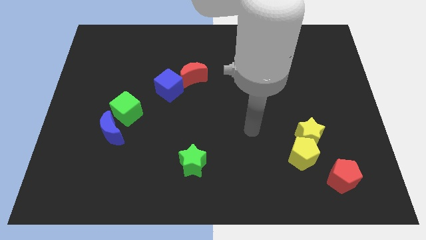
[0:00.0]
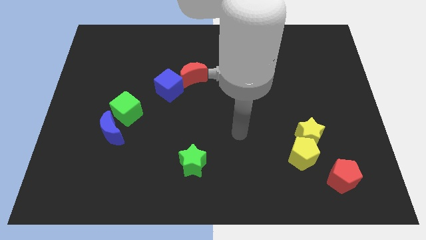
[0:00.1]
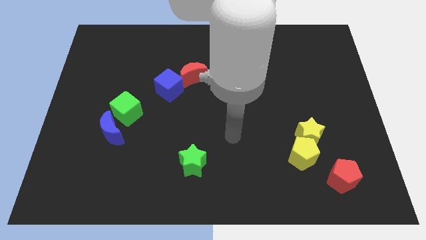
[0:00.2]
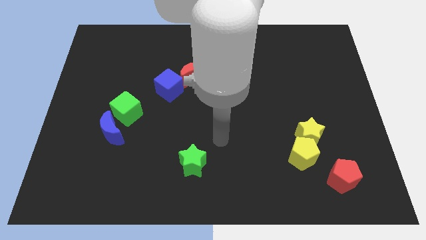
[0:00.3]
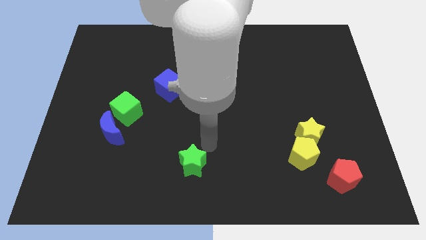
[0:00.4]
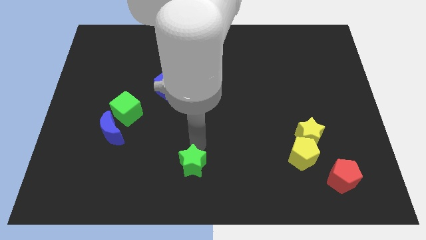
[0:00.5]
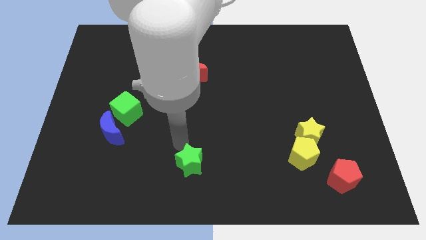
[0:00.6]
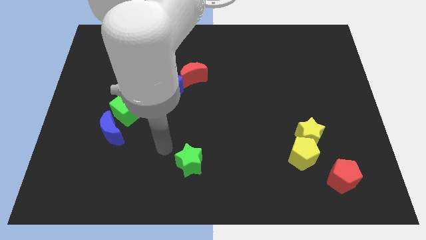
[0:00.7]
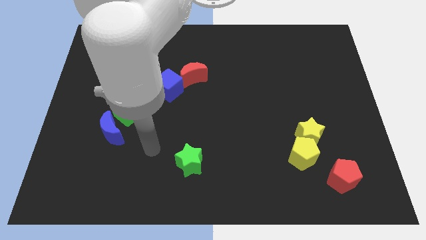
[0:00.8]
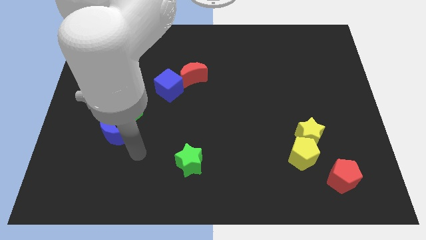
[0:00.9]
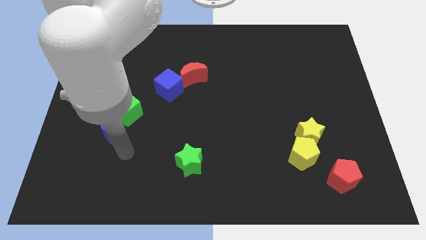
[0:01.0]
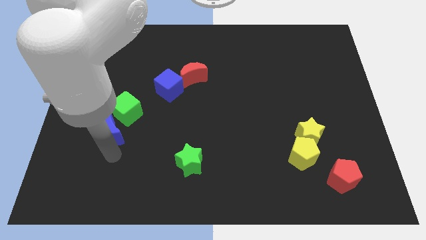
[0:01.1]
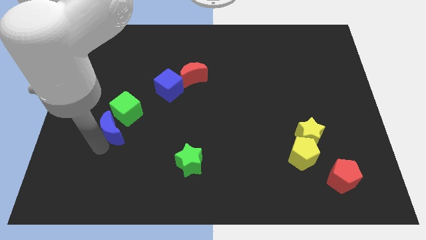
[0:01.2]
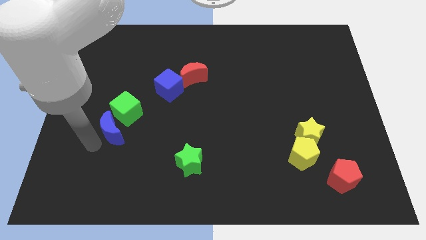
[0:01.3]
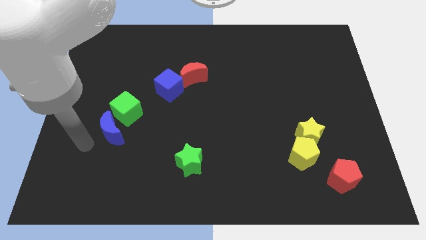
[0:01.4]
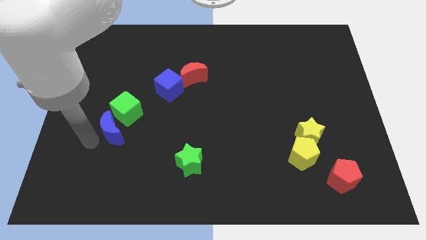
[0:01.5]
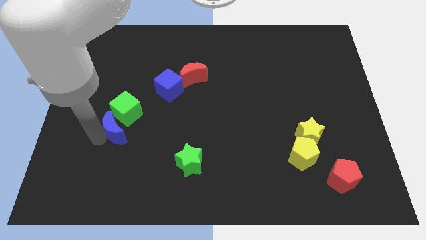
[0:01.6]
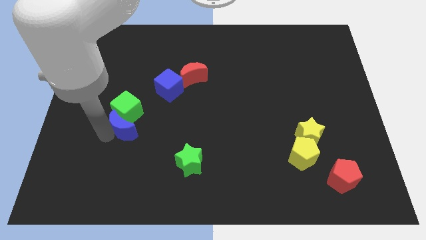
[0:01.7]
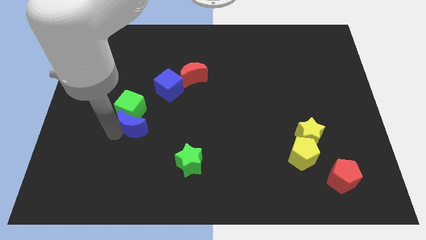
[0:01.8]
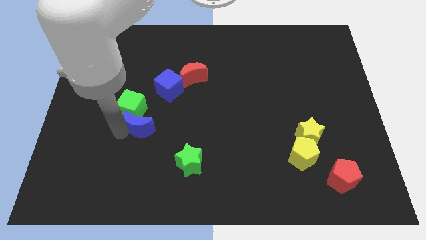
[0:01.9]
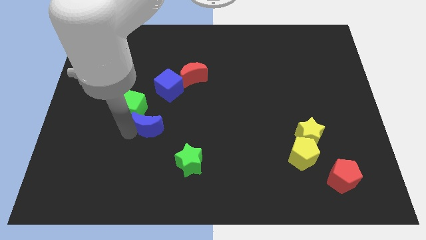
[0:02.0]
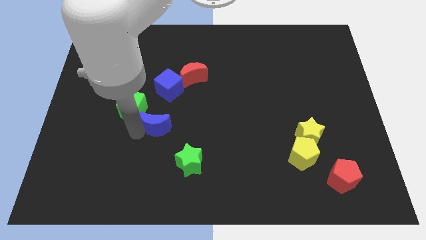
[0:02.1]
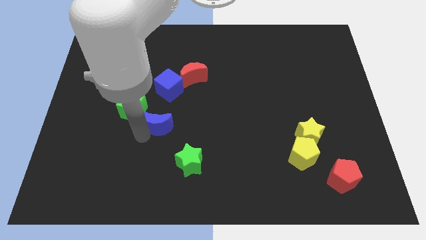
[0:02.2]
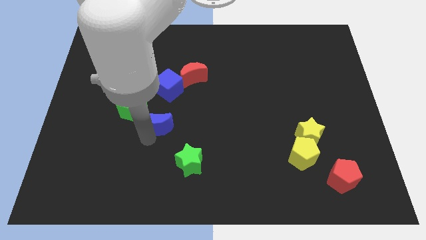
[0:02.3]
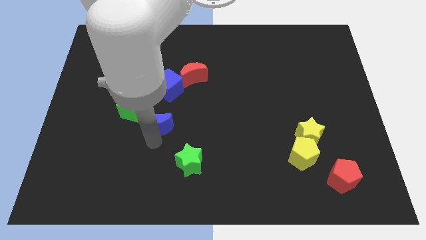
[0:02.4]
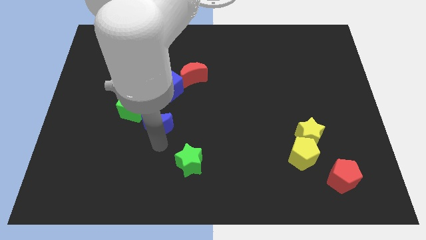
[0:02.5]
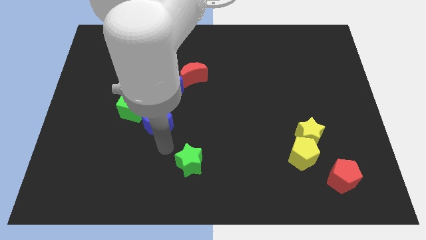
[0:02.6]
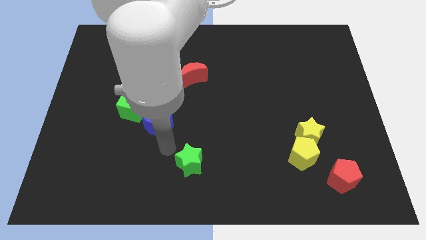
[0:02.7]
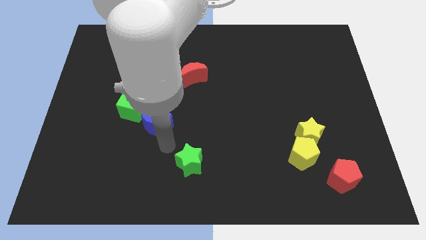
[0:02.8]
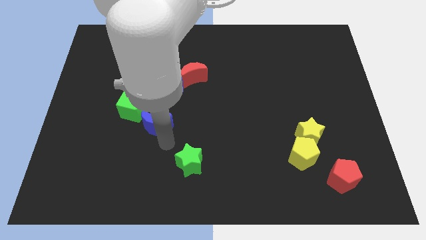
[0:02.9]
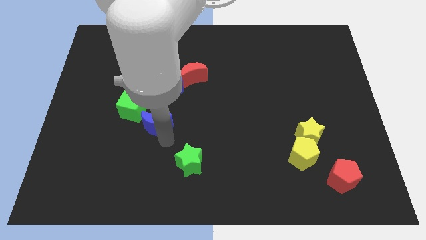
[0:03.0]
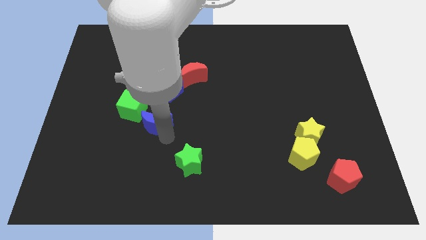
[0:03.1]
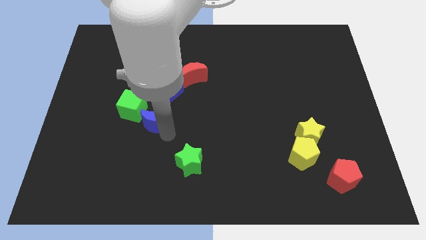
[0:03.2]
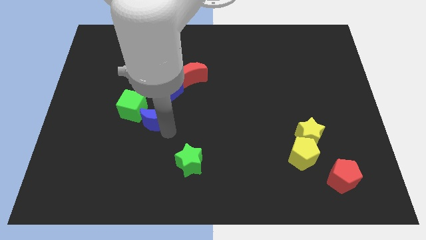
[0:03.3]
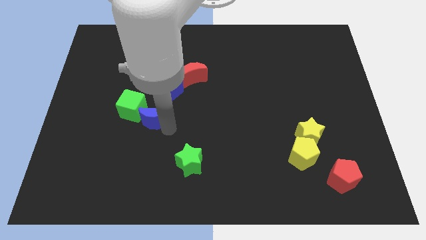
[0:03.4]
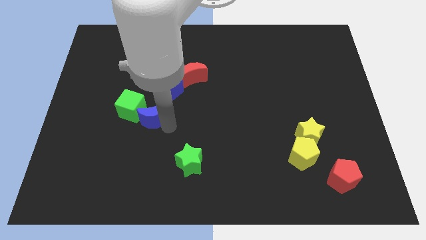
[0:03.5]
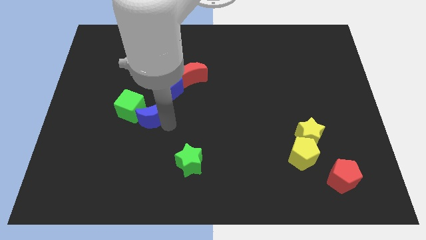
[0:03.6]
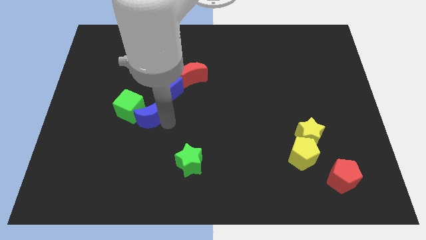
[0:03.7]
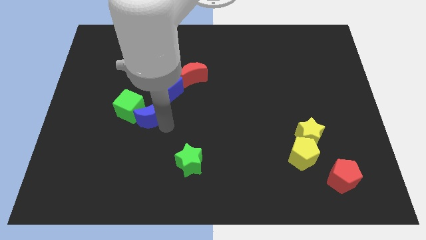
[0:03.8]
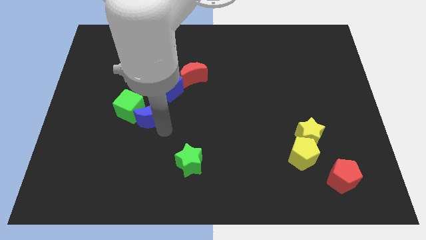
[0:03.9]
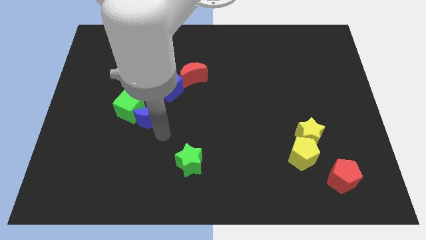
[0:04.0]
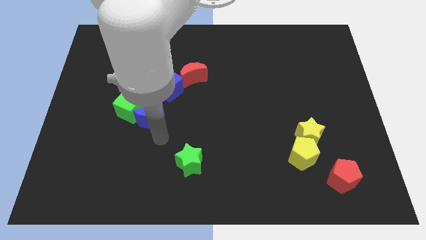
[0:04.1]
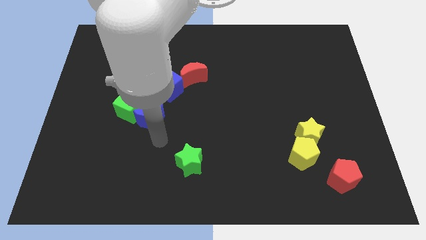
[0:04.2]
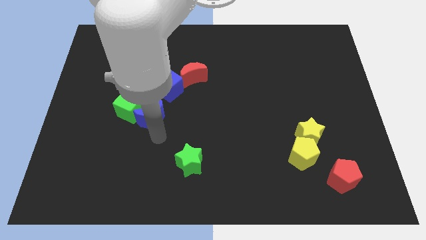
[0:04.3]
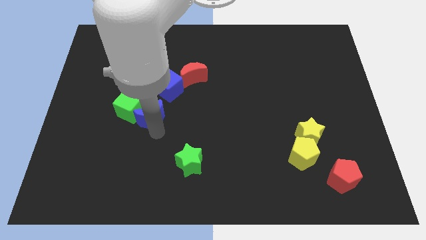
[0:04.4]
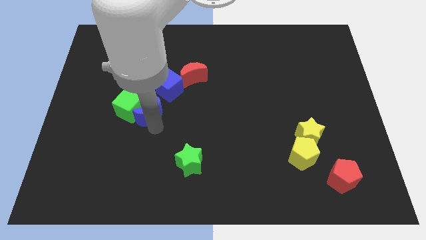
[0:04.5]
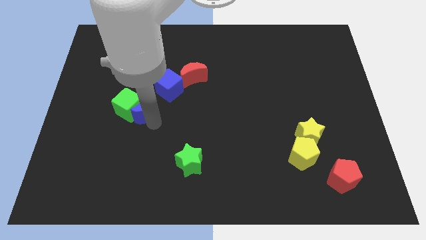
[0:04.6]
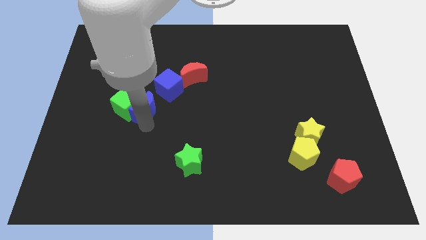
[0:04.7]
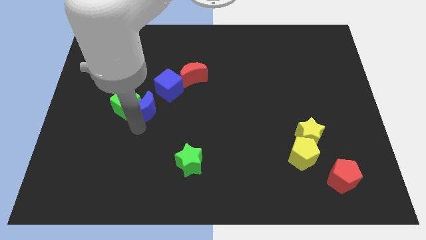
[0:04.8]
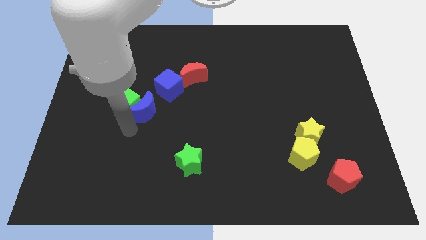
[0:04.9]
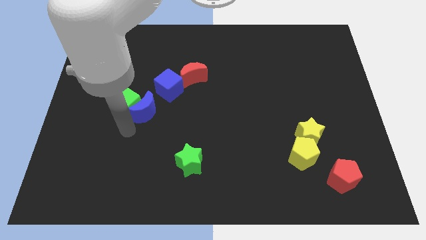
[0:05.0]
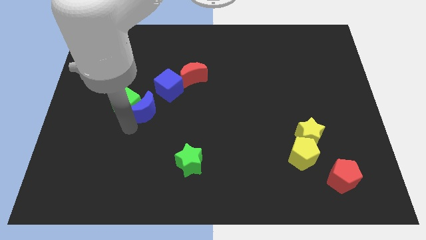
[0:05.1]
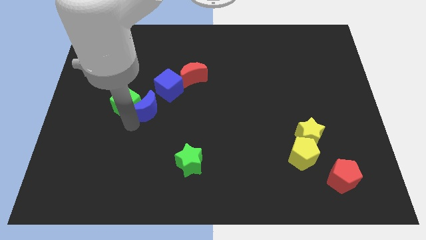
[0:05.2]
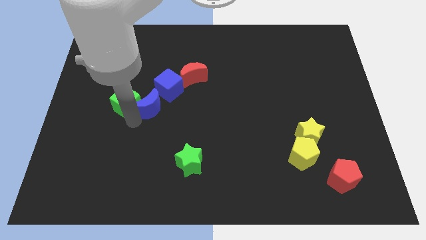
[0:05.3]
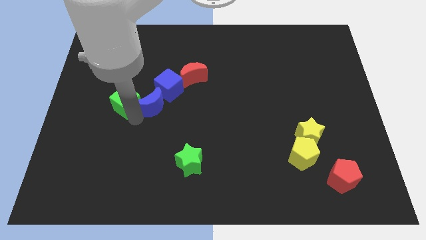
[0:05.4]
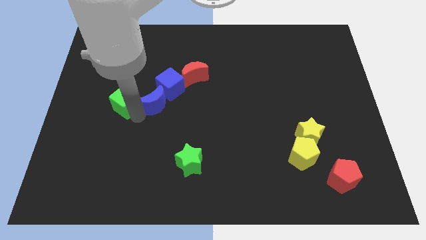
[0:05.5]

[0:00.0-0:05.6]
slide the blue moon close to the blue cube

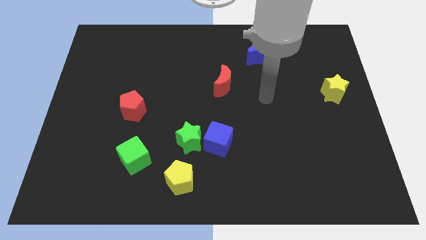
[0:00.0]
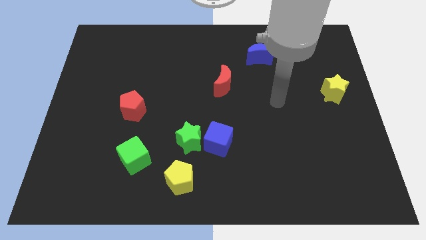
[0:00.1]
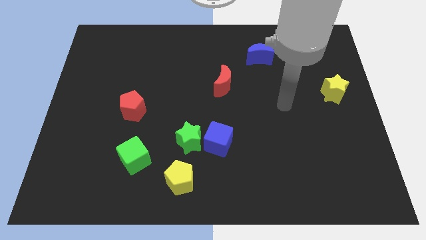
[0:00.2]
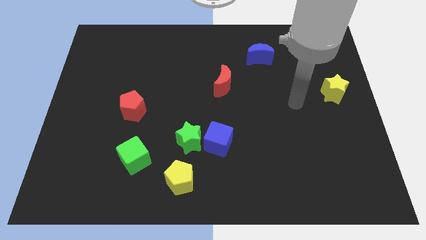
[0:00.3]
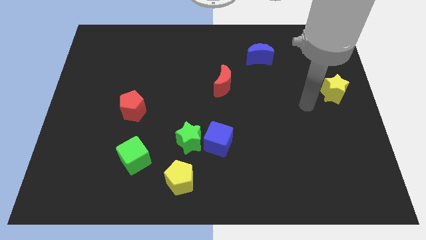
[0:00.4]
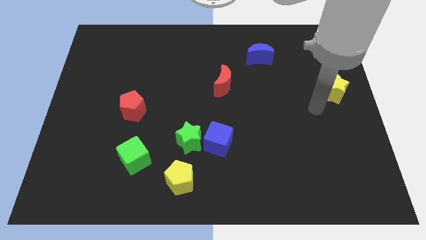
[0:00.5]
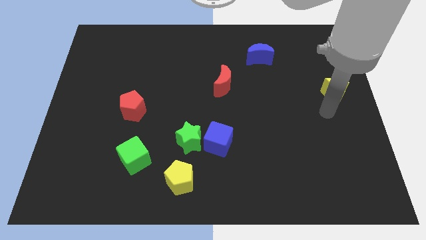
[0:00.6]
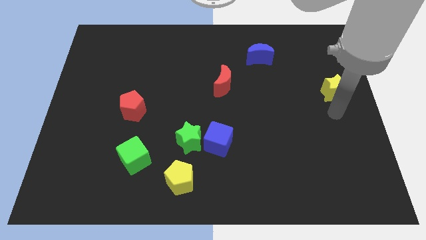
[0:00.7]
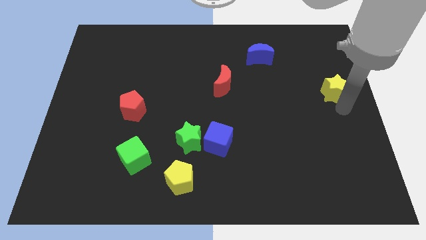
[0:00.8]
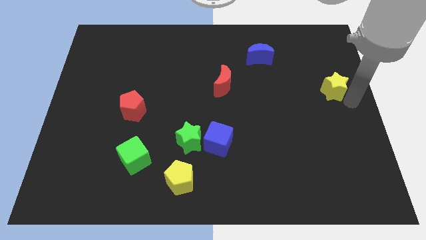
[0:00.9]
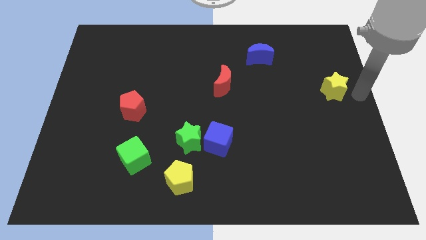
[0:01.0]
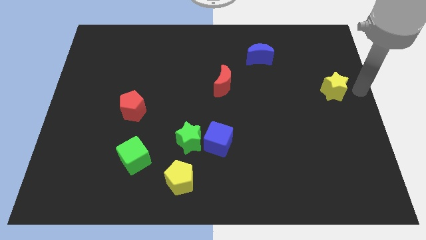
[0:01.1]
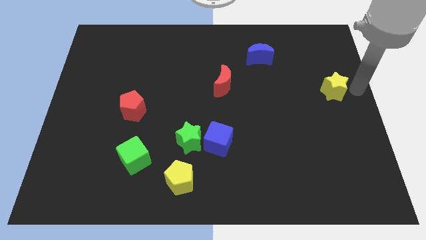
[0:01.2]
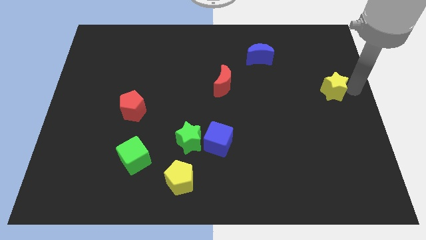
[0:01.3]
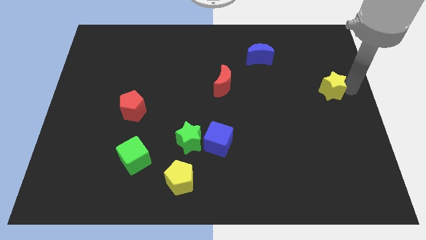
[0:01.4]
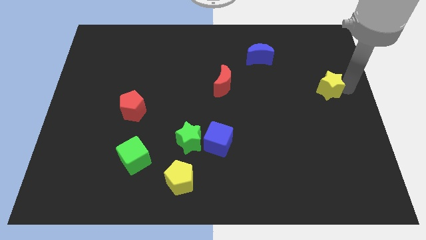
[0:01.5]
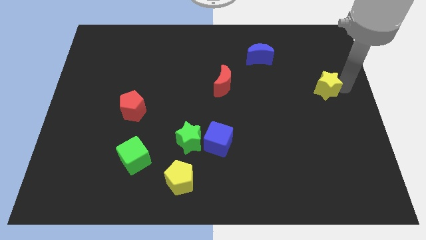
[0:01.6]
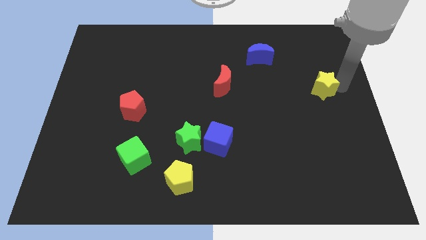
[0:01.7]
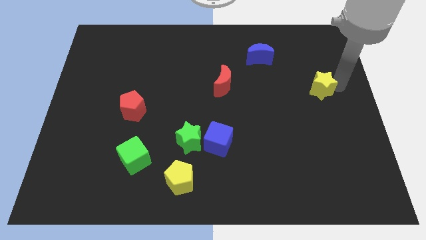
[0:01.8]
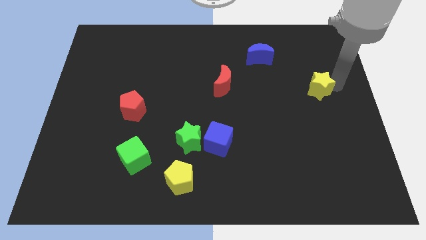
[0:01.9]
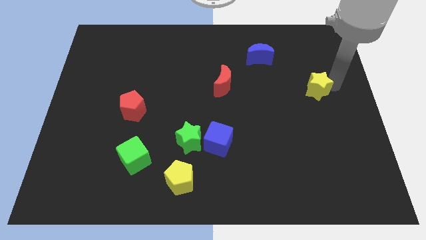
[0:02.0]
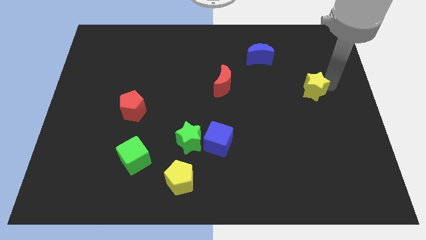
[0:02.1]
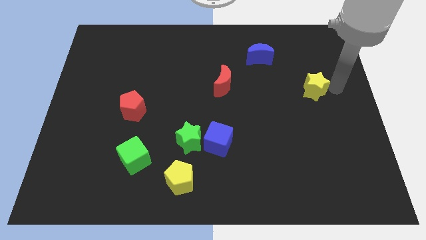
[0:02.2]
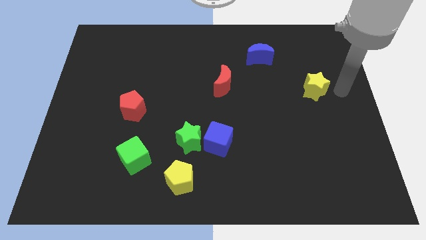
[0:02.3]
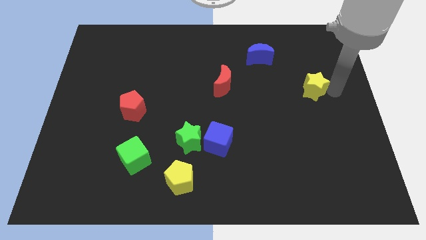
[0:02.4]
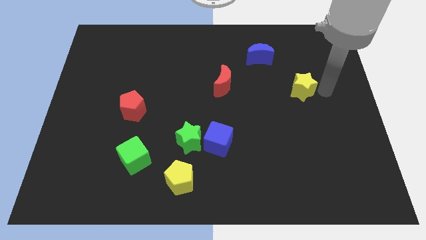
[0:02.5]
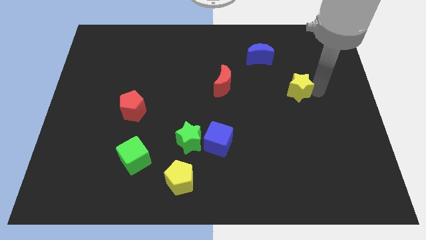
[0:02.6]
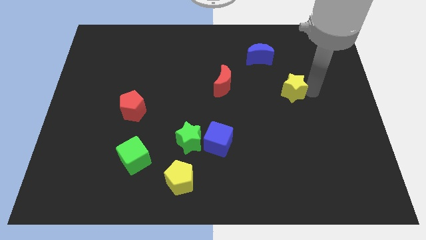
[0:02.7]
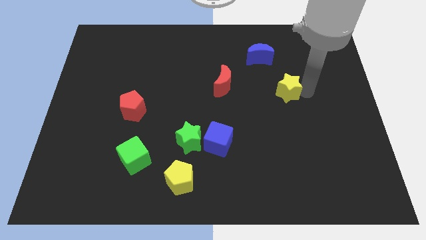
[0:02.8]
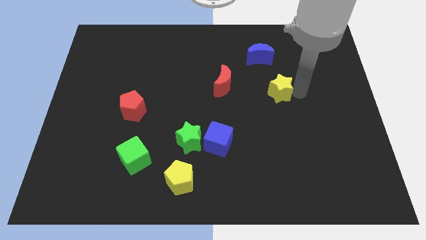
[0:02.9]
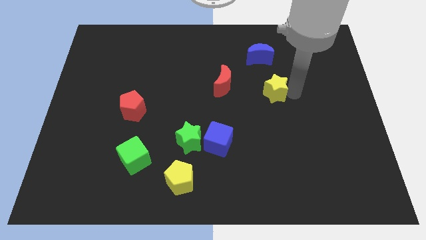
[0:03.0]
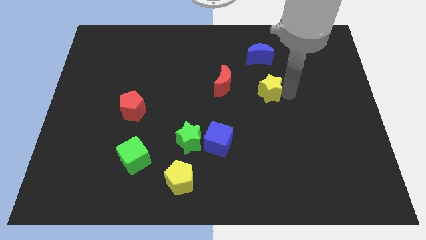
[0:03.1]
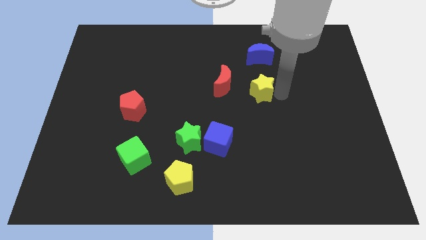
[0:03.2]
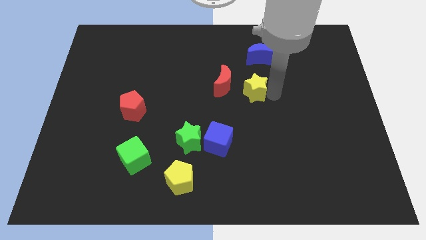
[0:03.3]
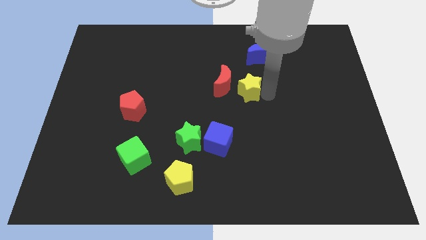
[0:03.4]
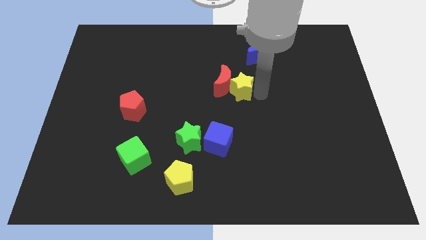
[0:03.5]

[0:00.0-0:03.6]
put the yellow star towards the red moon
